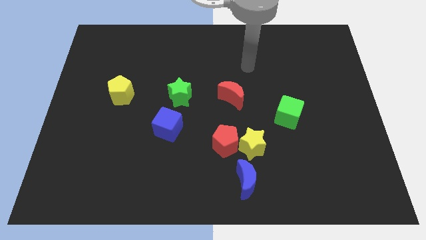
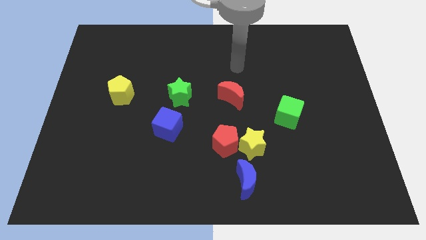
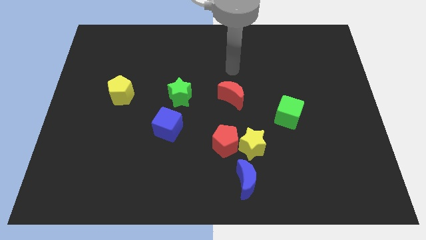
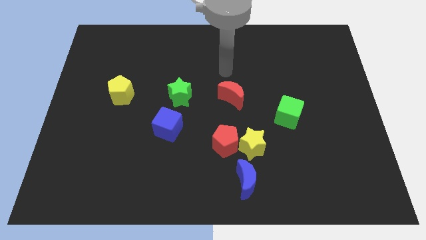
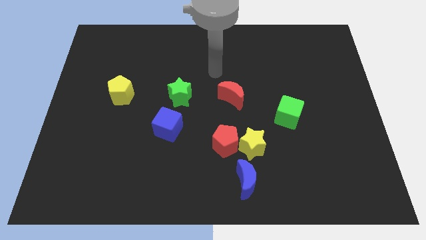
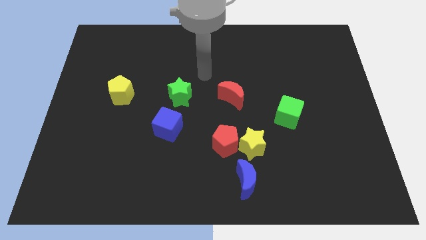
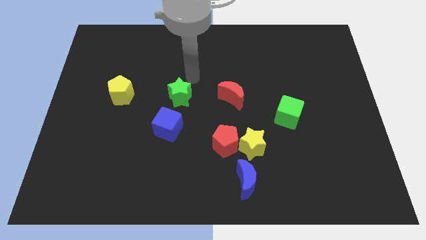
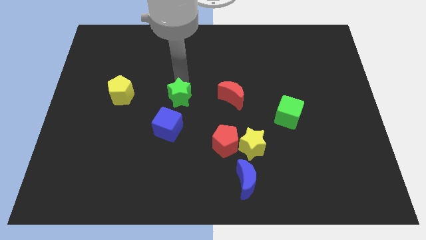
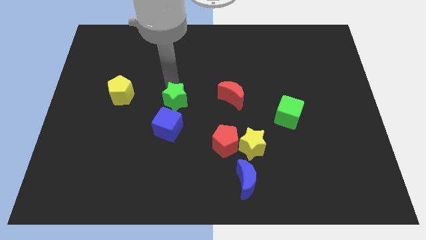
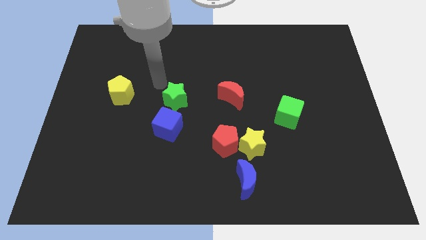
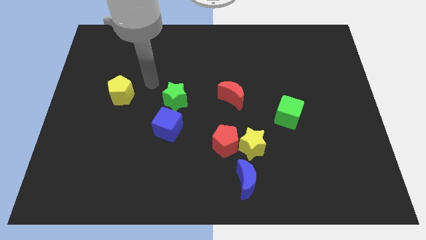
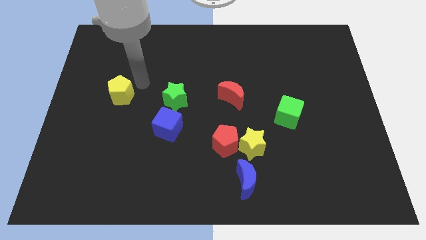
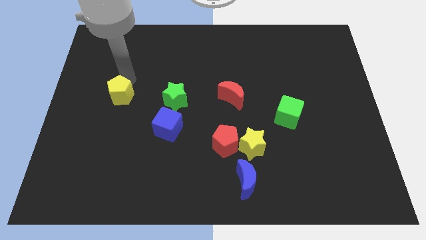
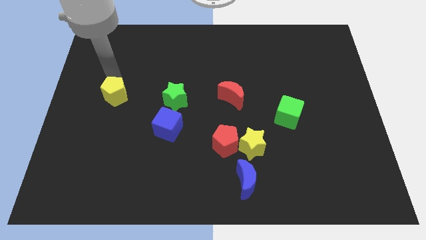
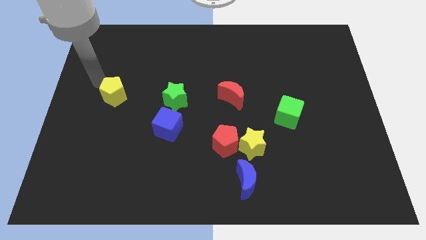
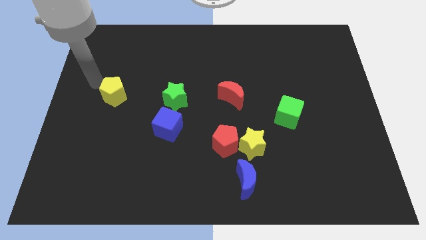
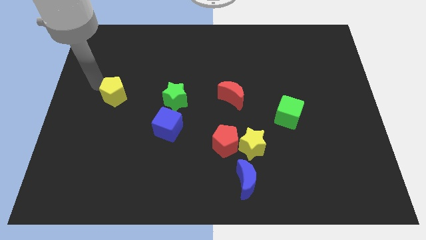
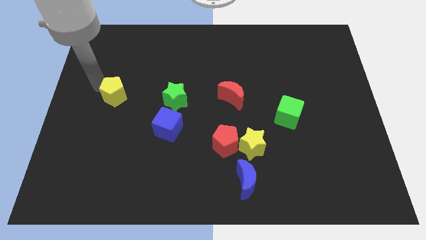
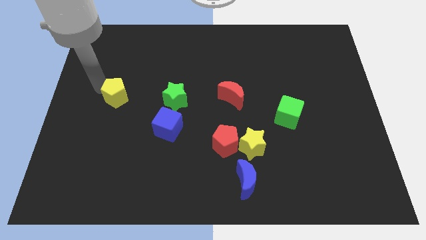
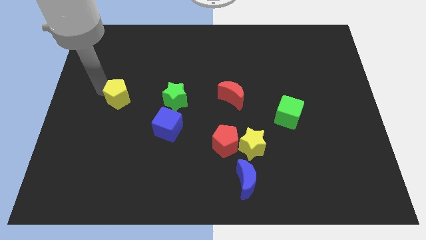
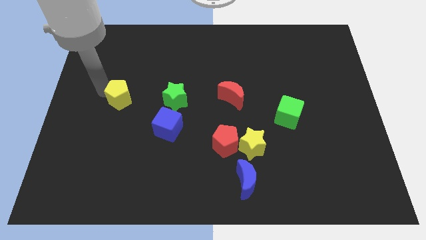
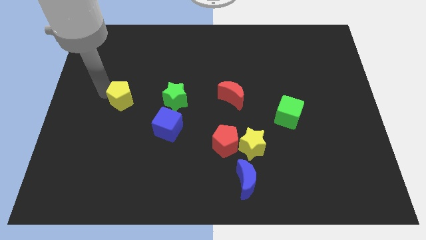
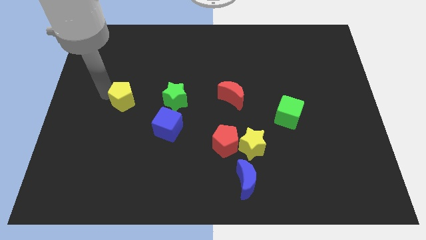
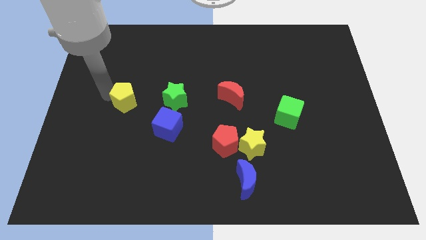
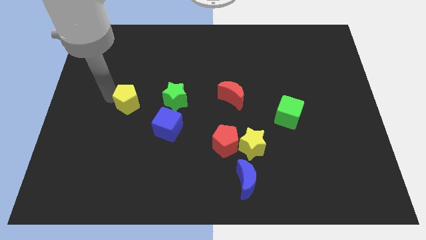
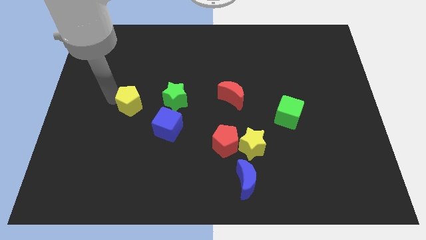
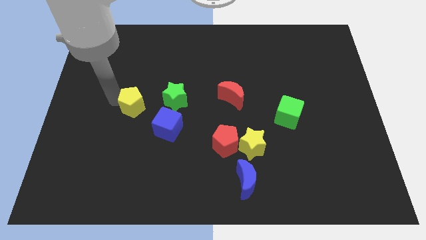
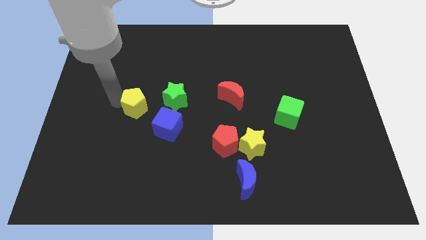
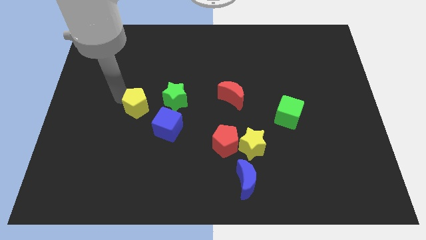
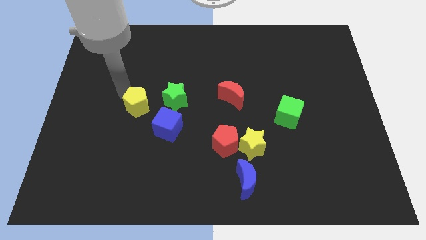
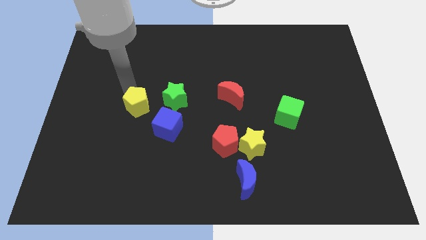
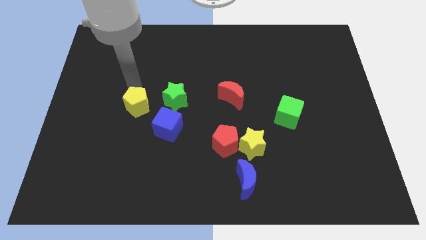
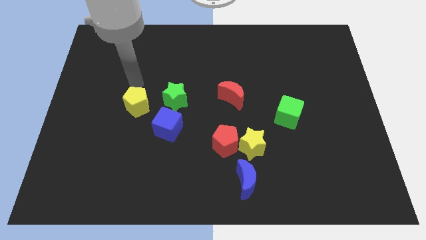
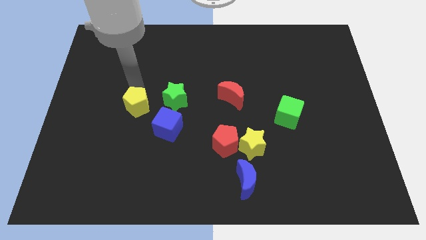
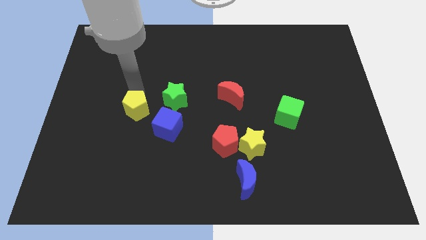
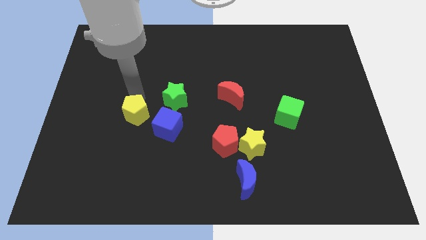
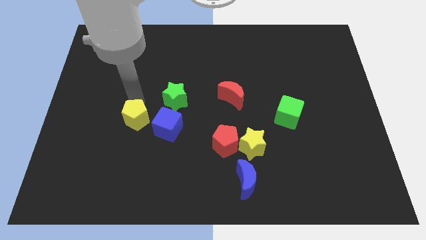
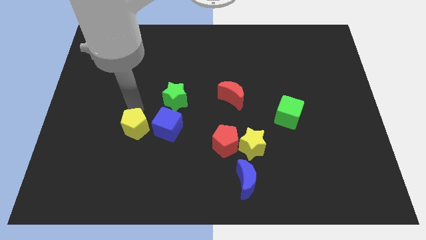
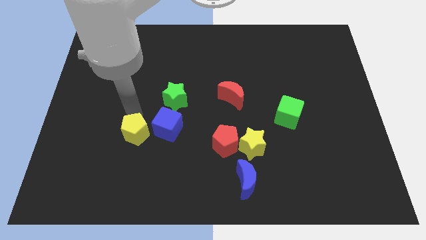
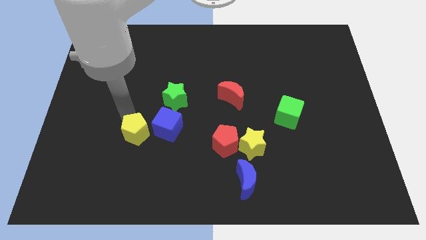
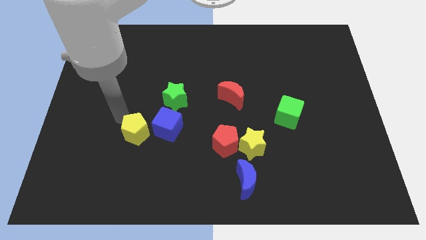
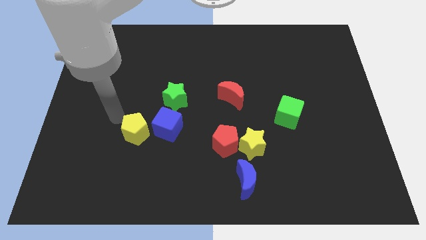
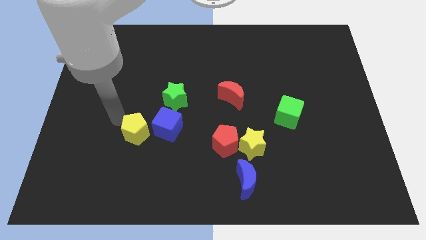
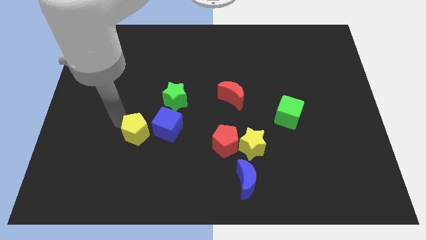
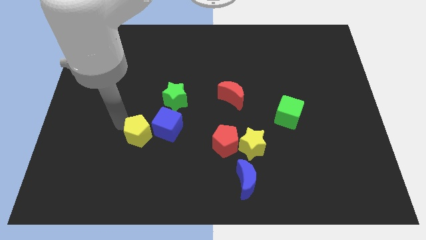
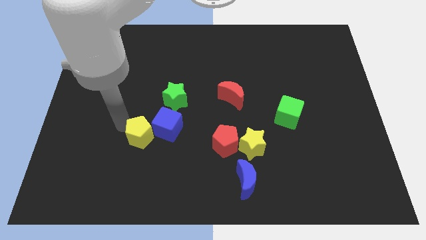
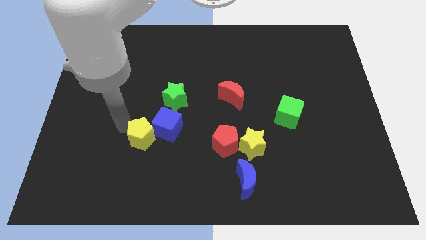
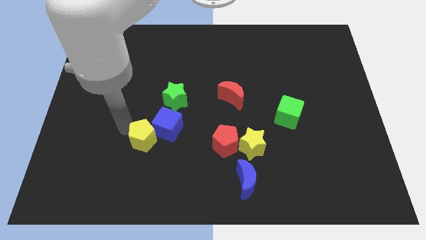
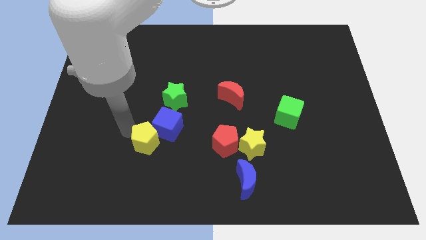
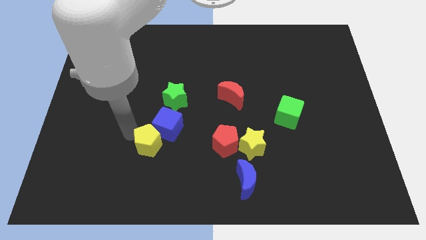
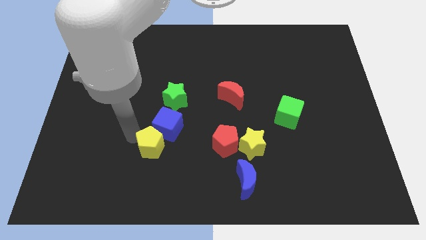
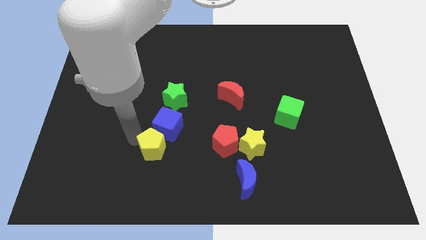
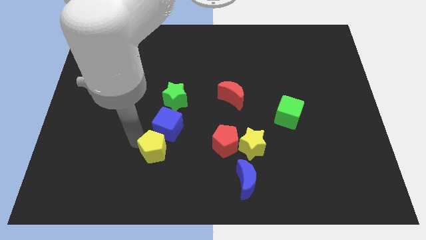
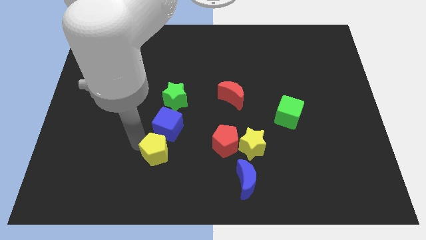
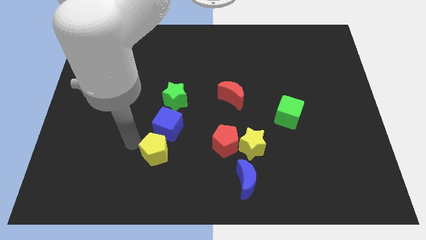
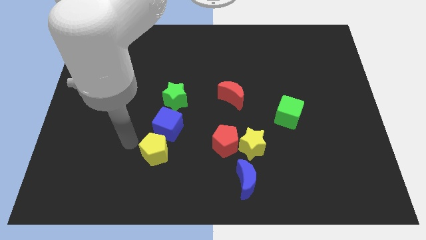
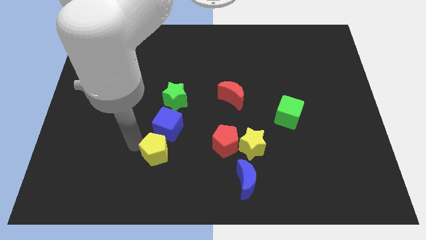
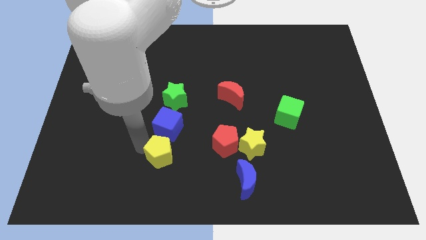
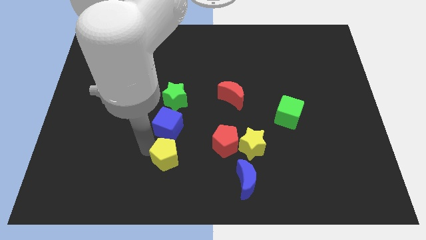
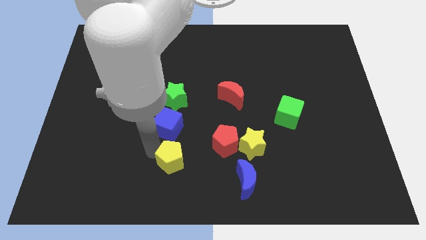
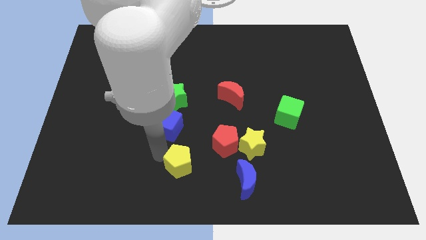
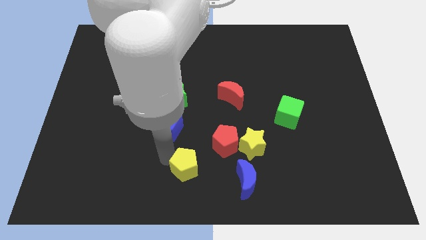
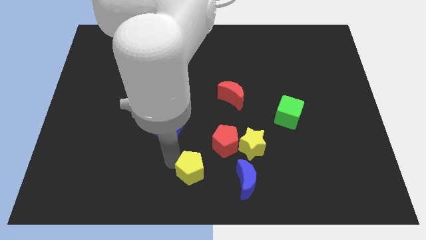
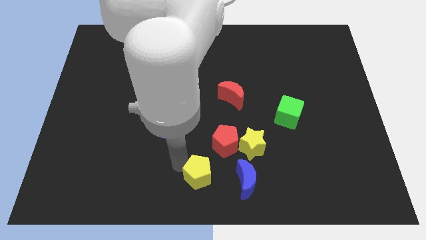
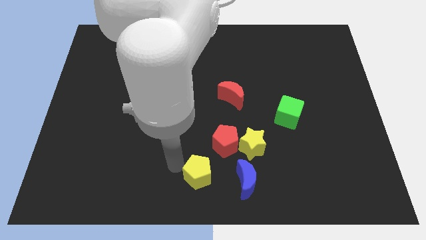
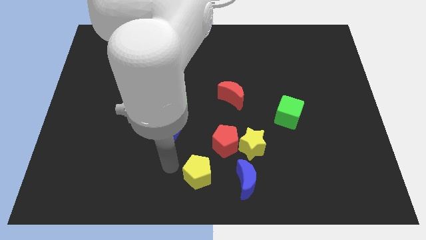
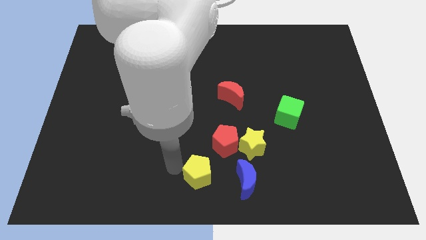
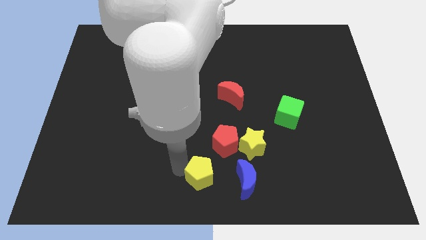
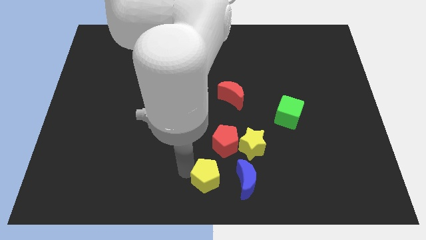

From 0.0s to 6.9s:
put the yellow pentagon diagonally down and to the left of the yellow star

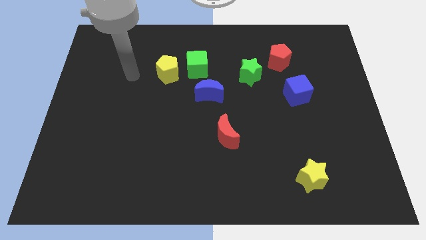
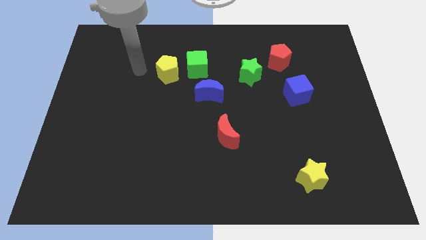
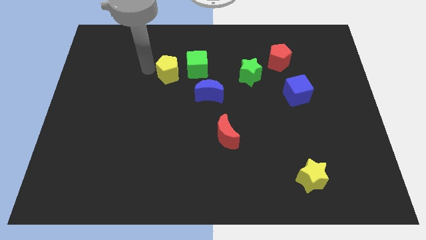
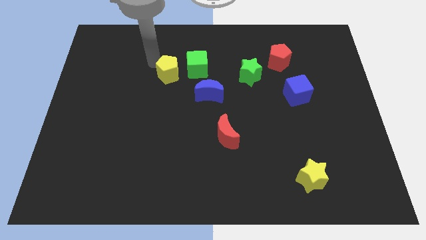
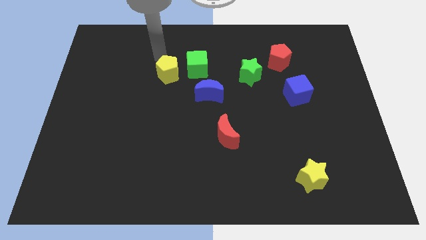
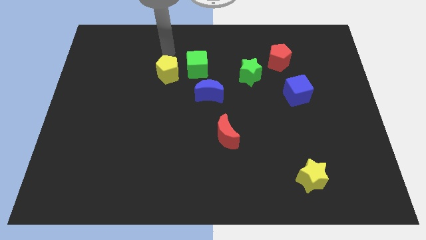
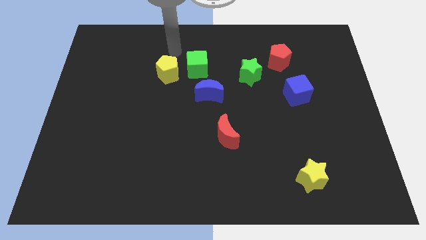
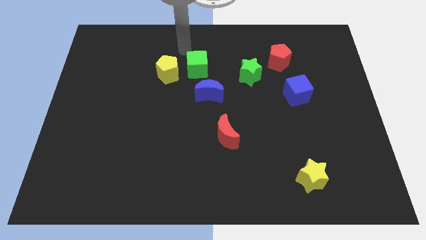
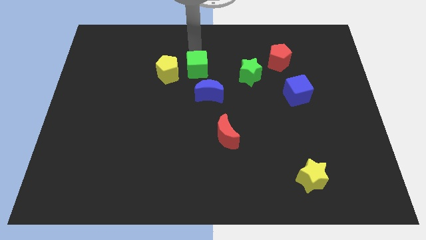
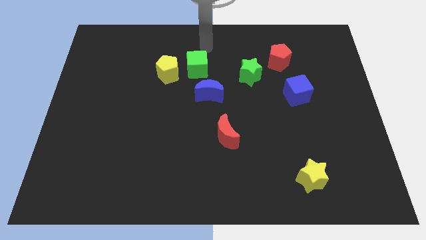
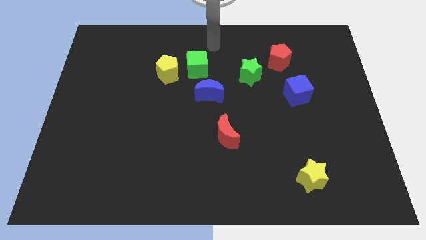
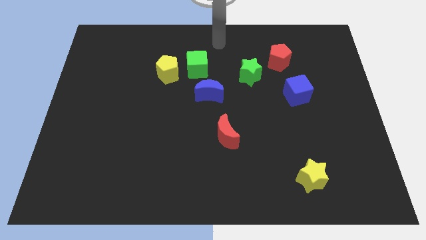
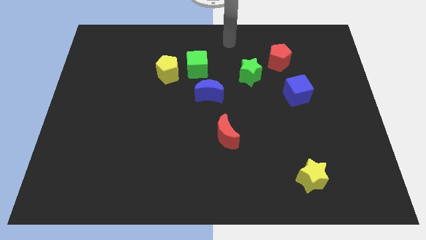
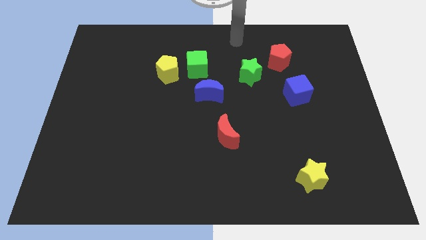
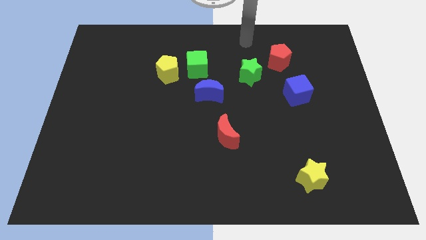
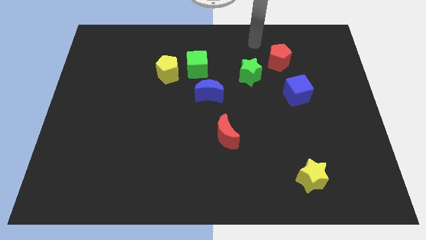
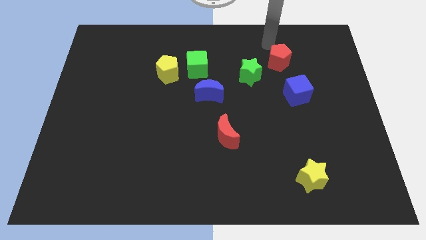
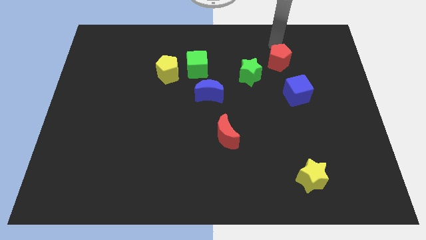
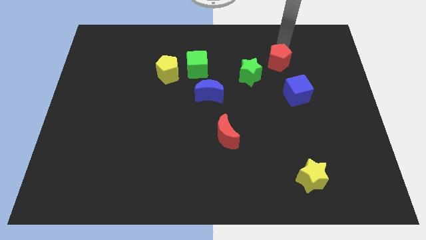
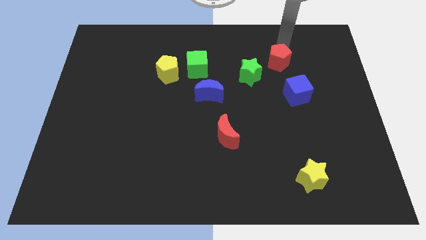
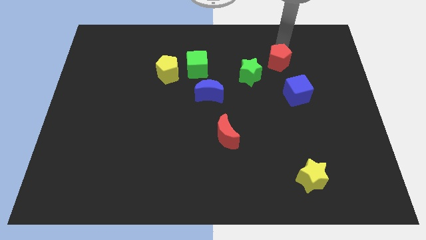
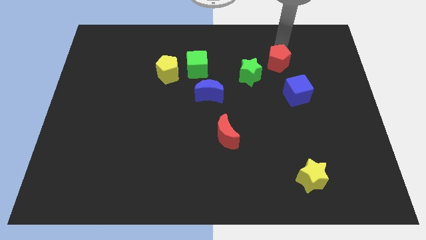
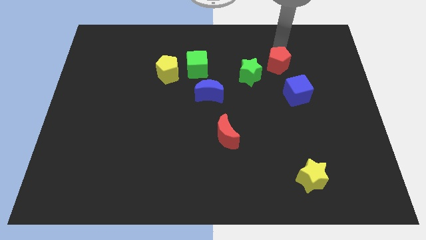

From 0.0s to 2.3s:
push the red pentagon diagonally up and to the left of the blue cube
